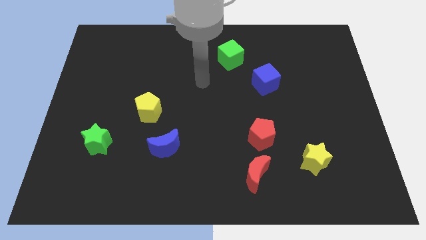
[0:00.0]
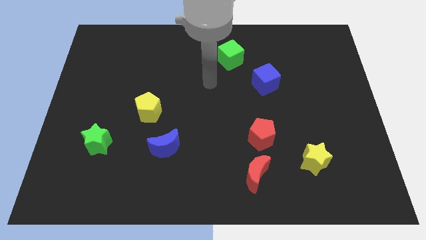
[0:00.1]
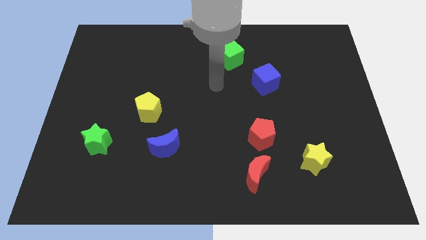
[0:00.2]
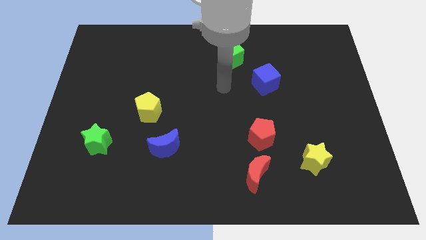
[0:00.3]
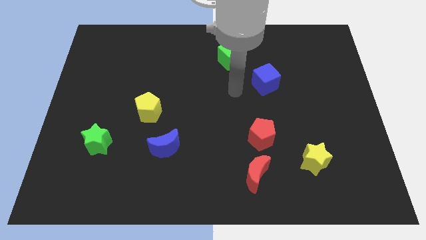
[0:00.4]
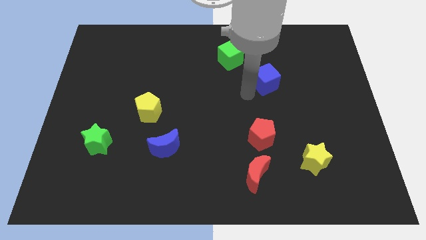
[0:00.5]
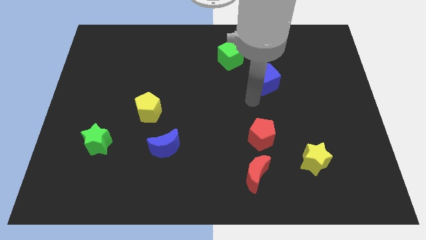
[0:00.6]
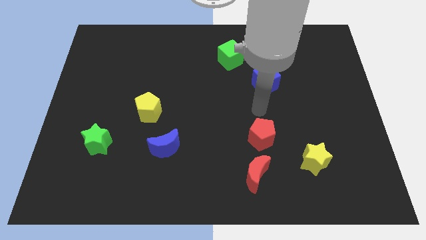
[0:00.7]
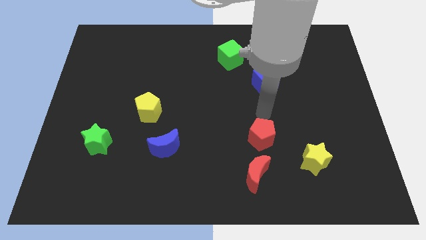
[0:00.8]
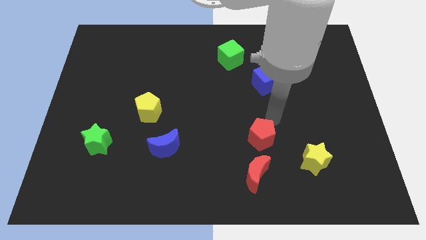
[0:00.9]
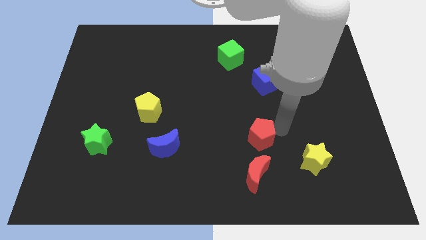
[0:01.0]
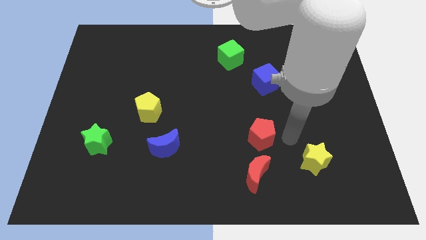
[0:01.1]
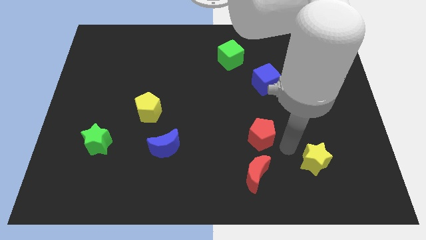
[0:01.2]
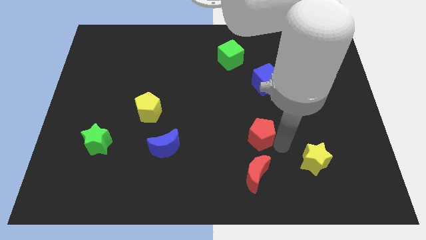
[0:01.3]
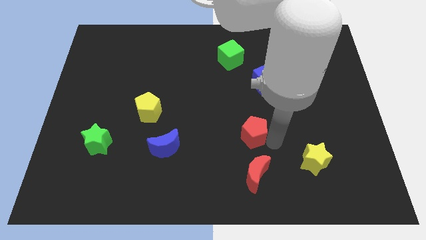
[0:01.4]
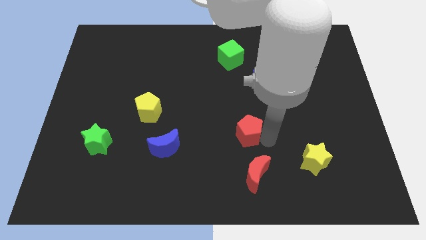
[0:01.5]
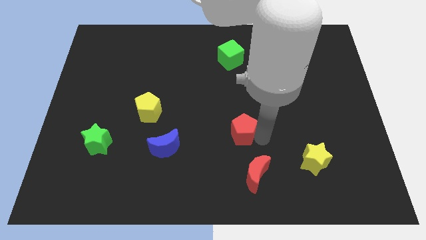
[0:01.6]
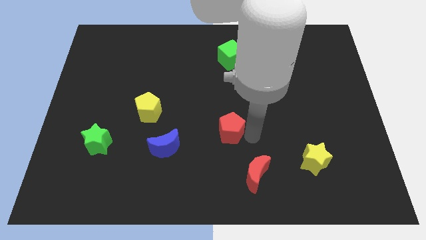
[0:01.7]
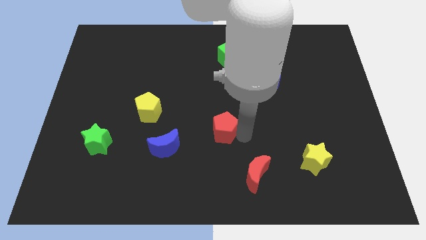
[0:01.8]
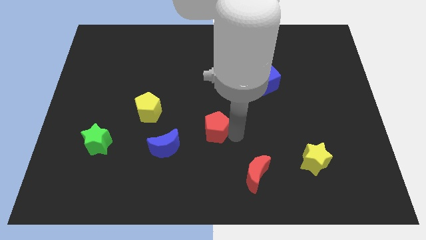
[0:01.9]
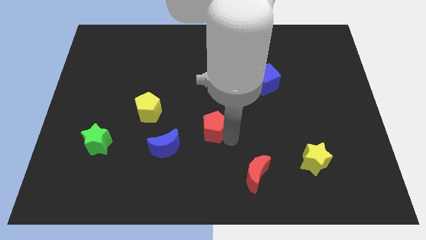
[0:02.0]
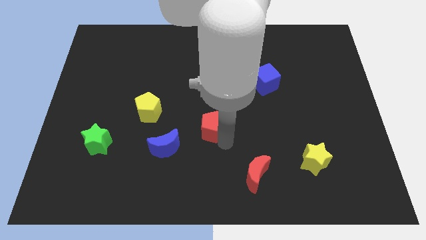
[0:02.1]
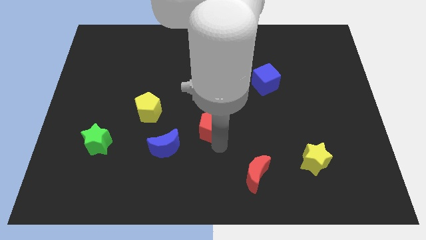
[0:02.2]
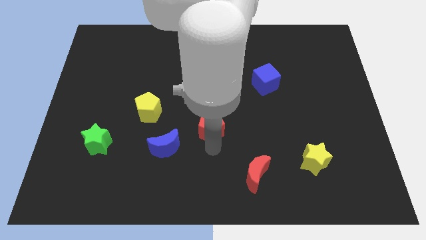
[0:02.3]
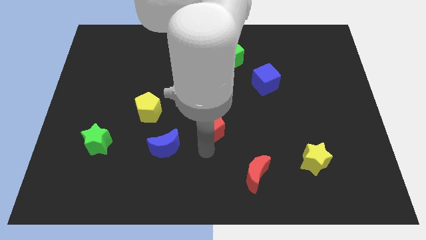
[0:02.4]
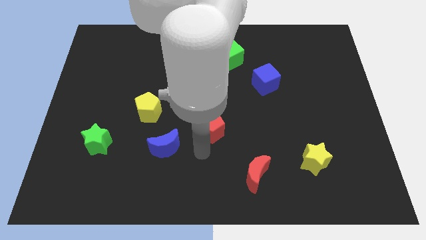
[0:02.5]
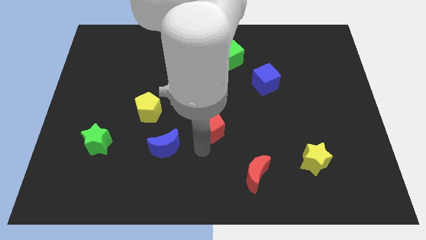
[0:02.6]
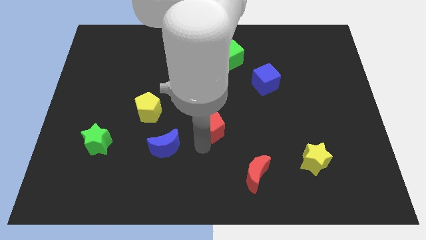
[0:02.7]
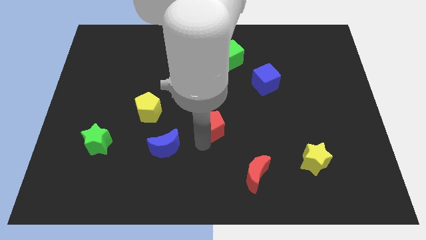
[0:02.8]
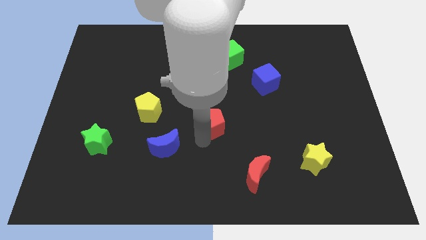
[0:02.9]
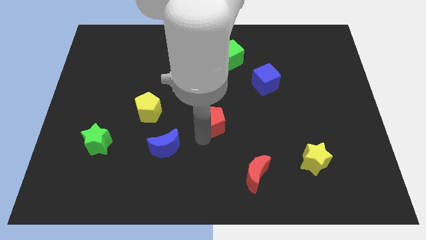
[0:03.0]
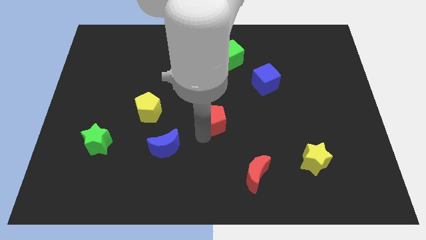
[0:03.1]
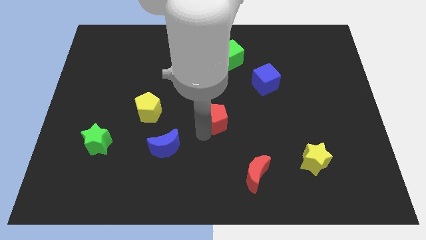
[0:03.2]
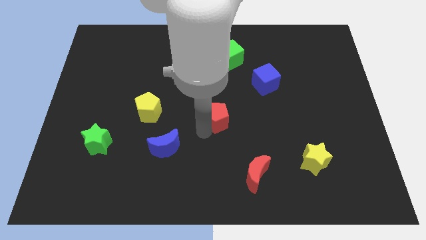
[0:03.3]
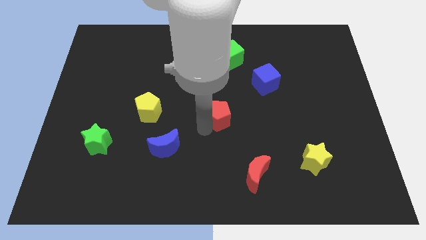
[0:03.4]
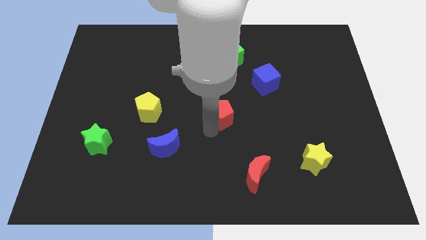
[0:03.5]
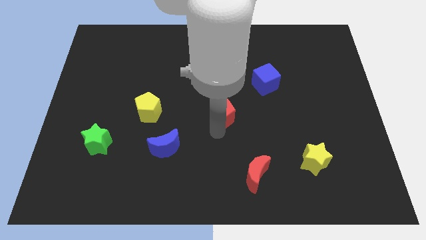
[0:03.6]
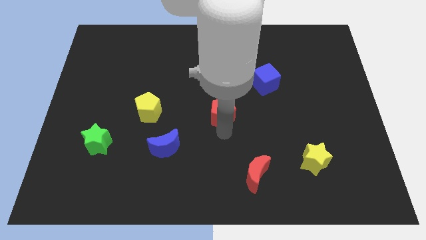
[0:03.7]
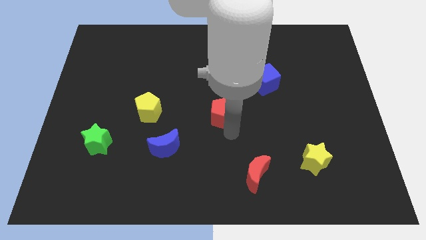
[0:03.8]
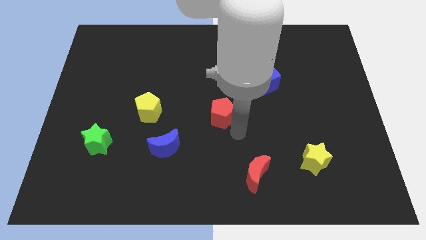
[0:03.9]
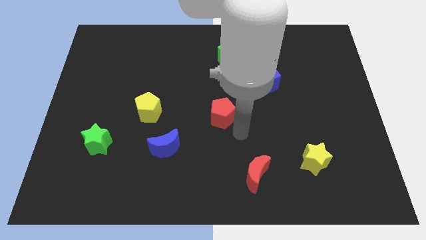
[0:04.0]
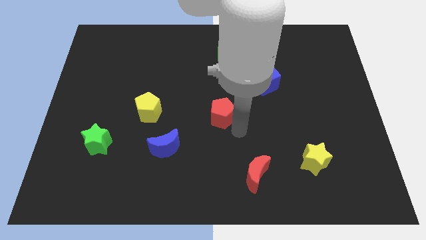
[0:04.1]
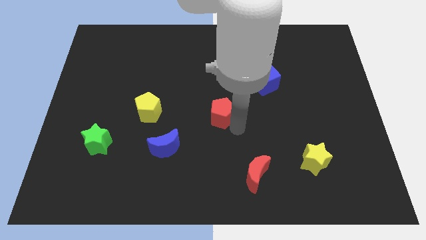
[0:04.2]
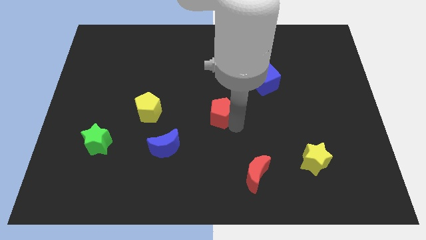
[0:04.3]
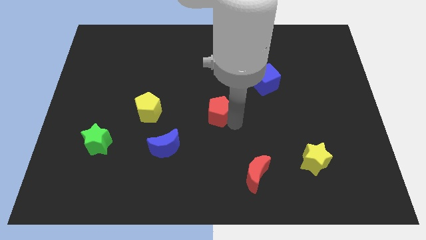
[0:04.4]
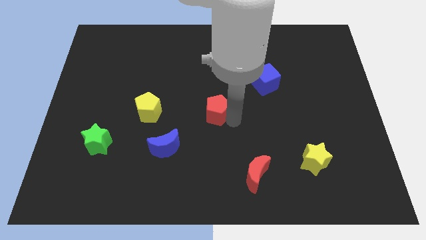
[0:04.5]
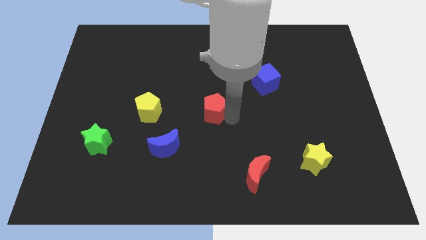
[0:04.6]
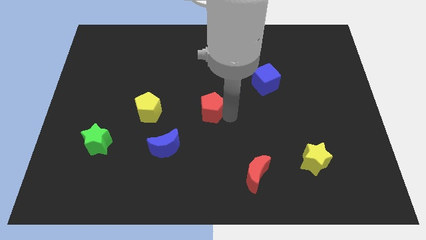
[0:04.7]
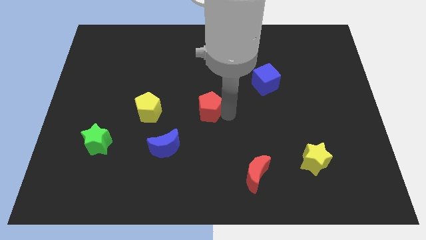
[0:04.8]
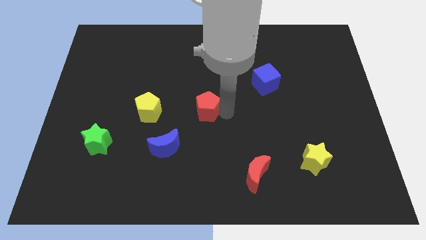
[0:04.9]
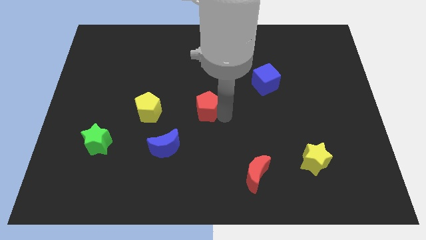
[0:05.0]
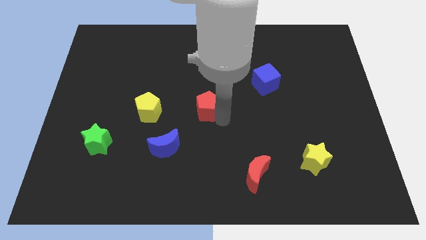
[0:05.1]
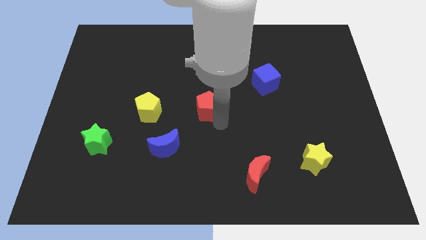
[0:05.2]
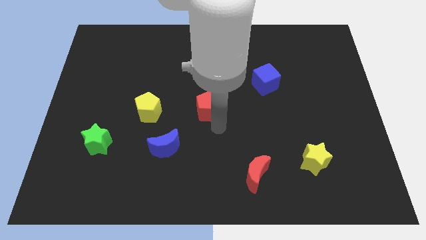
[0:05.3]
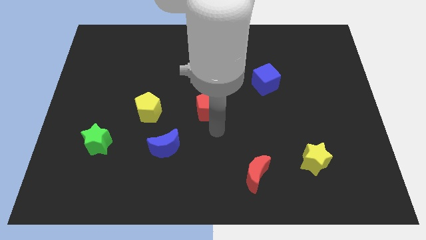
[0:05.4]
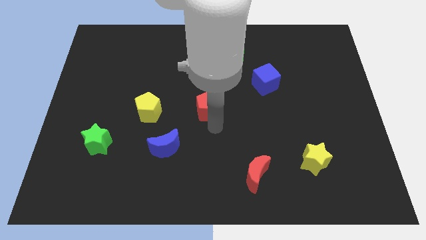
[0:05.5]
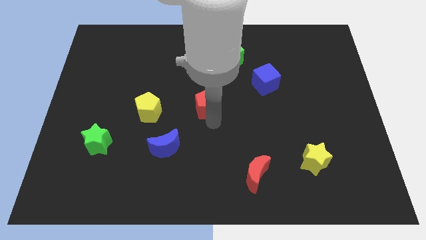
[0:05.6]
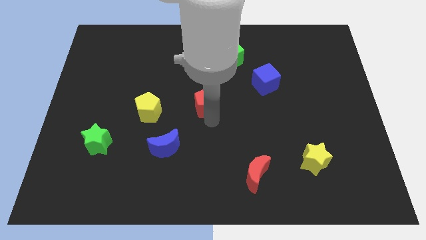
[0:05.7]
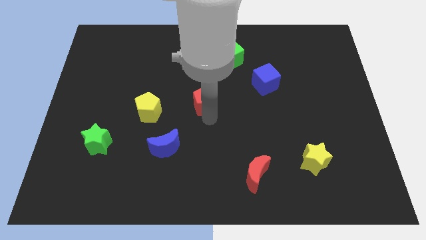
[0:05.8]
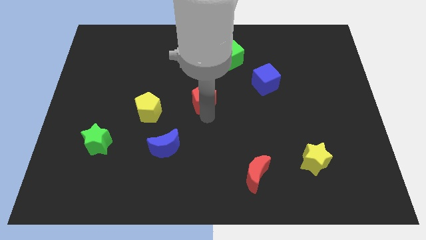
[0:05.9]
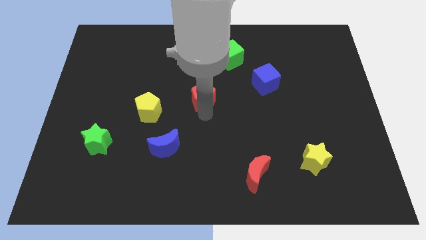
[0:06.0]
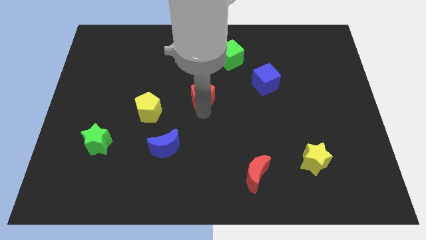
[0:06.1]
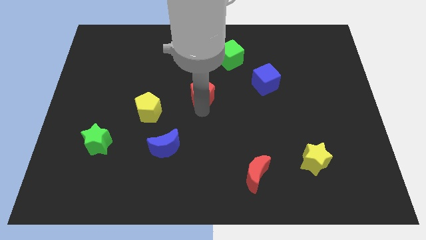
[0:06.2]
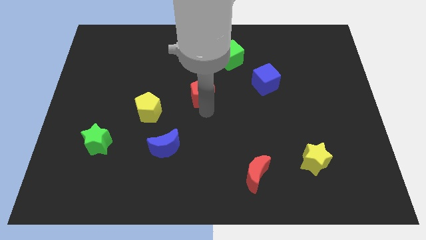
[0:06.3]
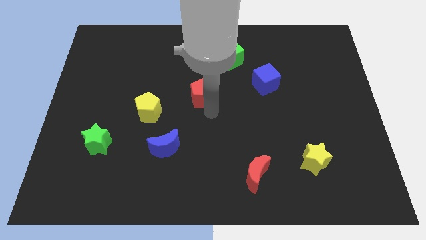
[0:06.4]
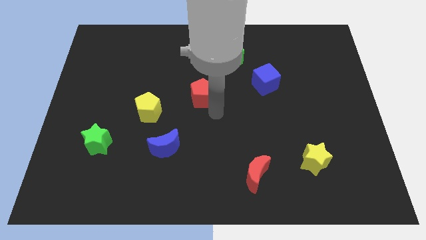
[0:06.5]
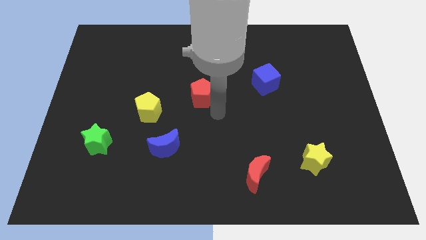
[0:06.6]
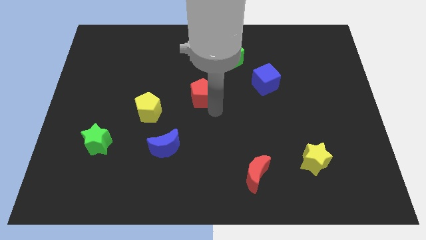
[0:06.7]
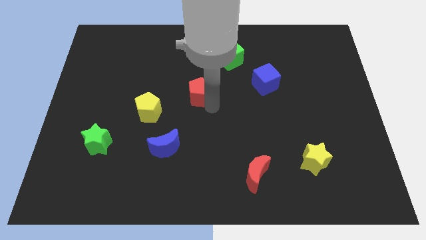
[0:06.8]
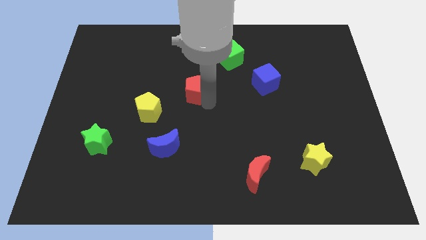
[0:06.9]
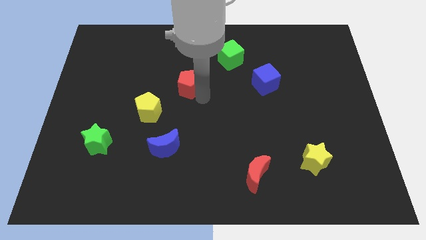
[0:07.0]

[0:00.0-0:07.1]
slide the red pentagon diagonally up and to the left

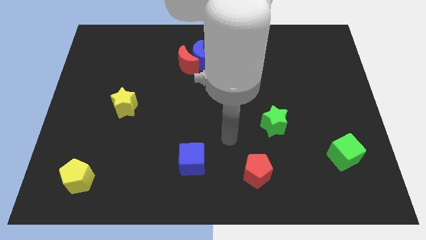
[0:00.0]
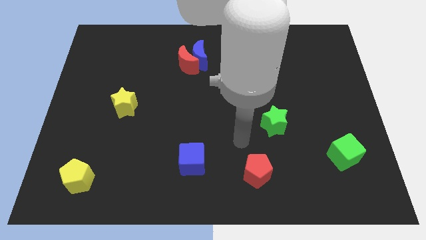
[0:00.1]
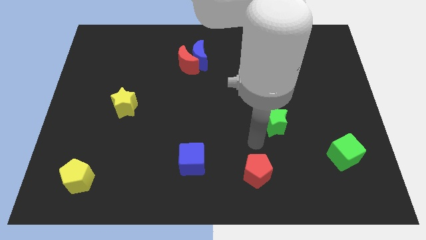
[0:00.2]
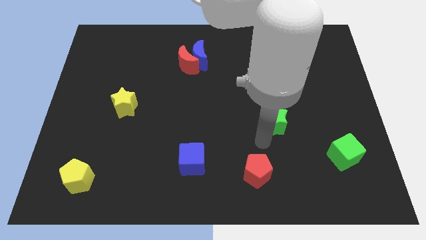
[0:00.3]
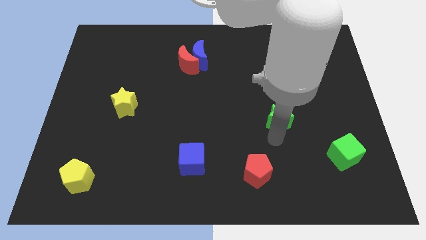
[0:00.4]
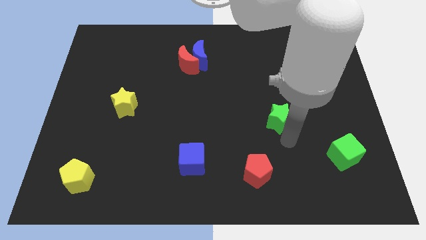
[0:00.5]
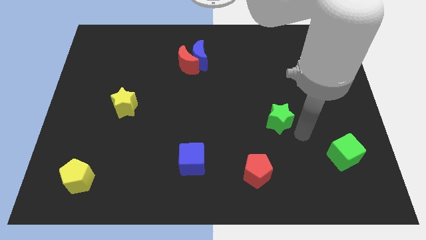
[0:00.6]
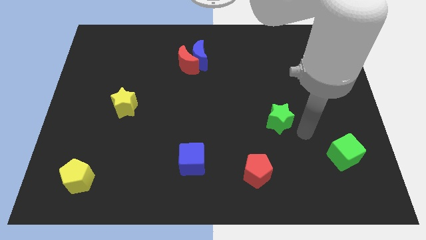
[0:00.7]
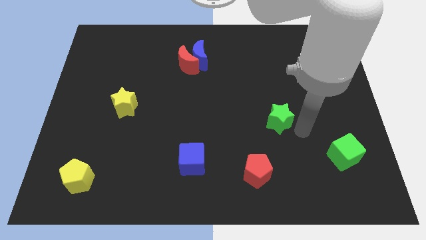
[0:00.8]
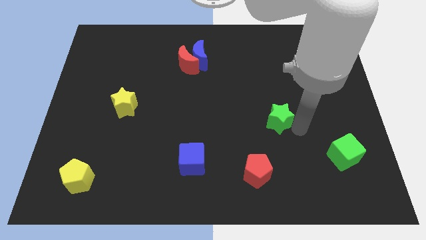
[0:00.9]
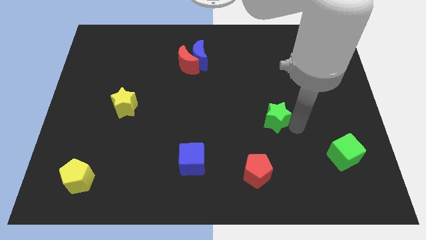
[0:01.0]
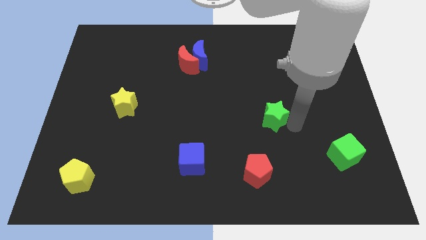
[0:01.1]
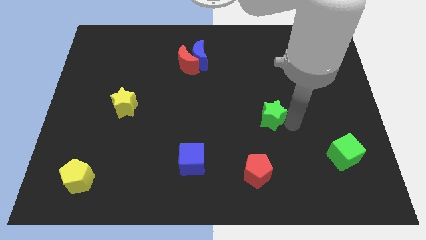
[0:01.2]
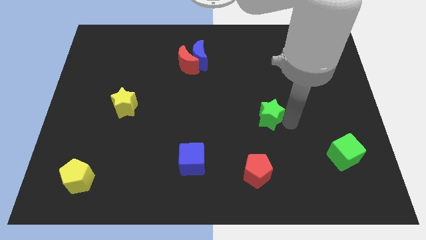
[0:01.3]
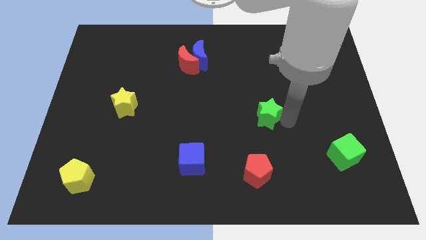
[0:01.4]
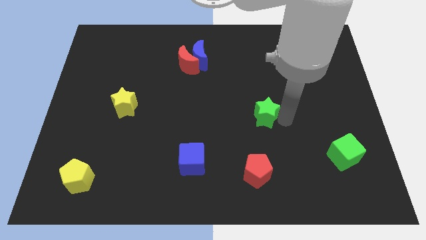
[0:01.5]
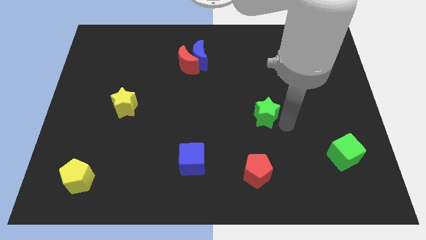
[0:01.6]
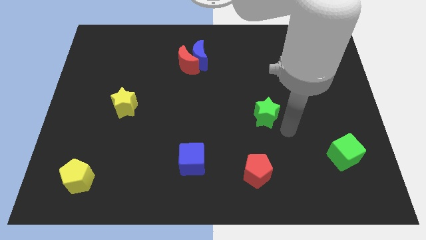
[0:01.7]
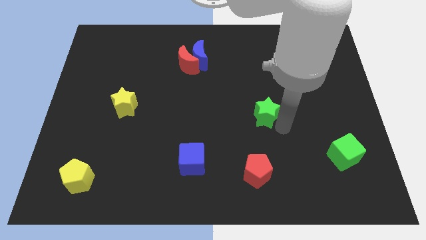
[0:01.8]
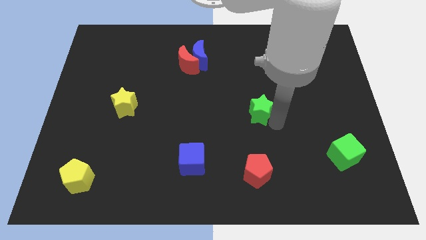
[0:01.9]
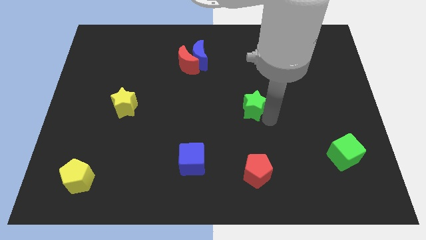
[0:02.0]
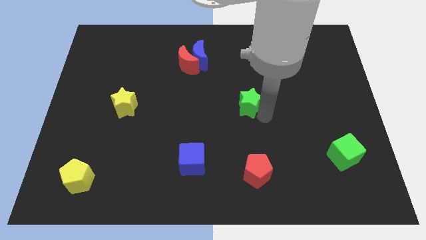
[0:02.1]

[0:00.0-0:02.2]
move the green star upwards and then to the left somewhat
